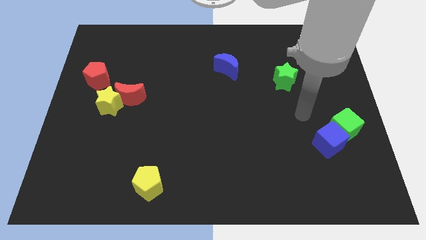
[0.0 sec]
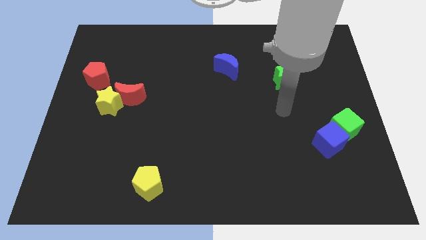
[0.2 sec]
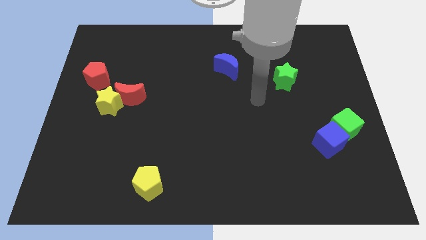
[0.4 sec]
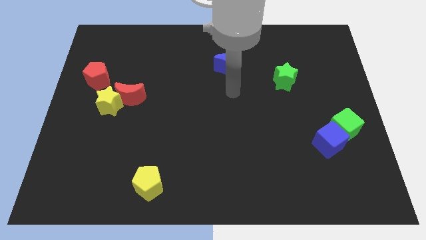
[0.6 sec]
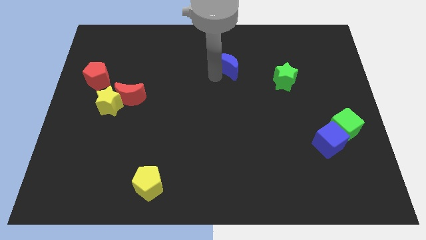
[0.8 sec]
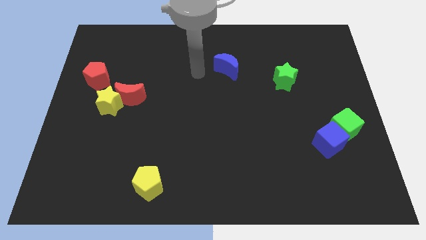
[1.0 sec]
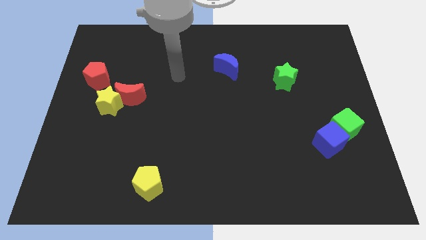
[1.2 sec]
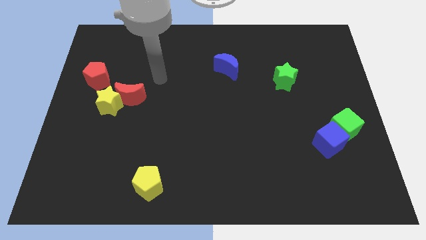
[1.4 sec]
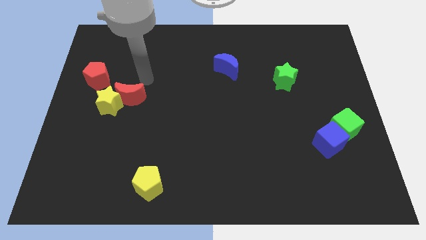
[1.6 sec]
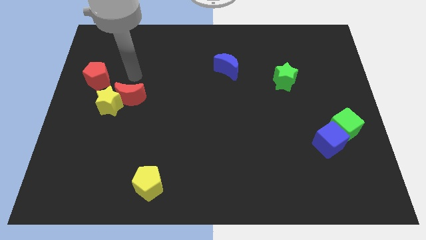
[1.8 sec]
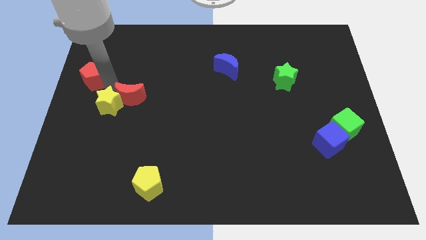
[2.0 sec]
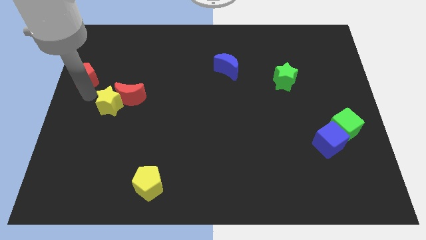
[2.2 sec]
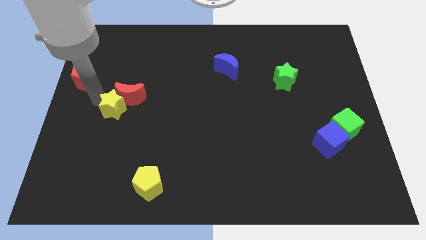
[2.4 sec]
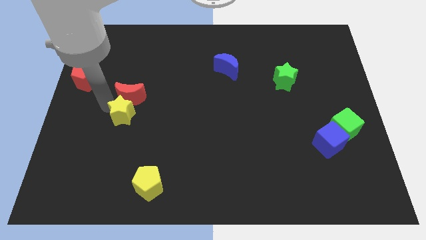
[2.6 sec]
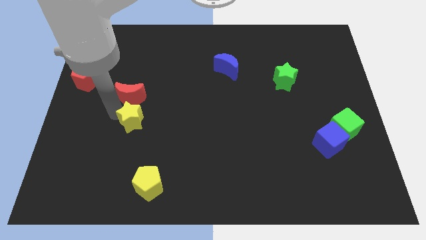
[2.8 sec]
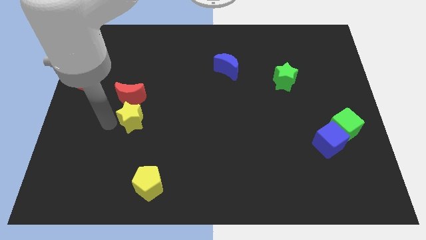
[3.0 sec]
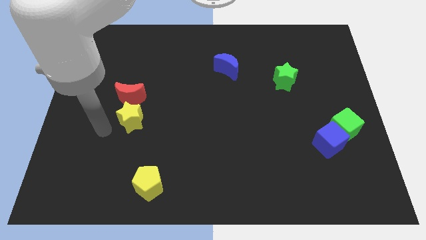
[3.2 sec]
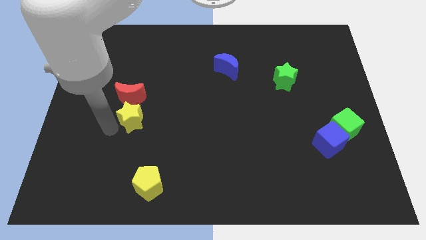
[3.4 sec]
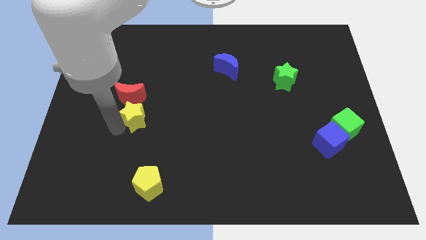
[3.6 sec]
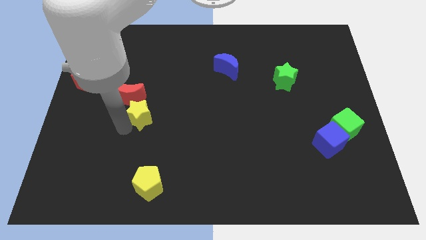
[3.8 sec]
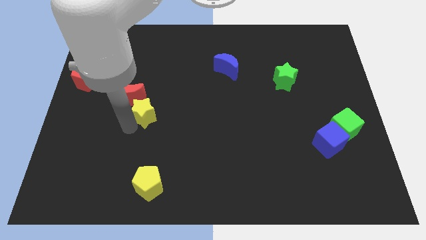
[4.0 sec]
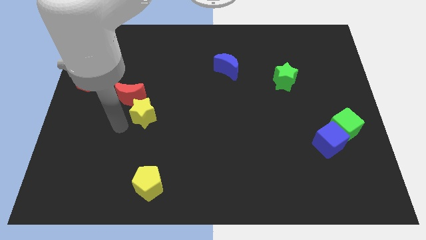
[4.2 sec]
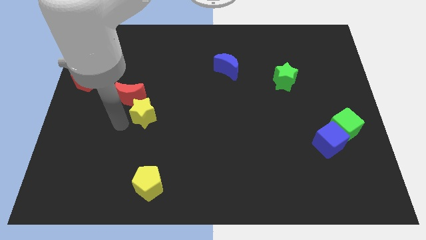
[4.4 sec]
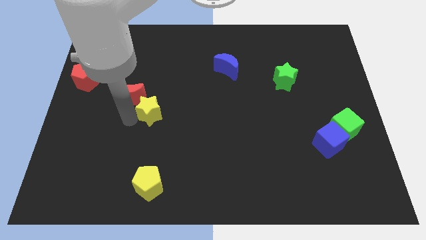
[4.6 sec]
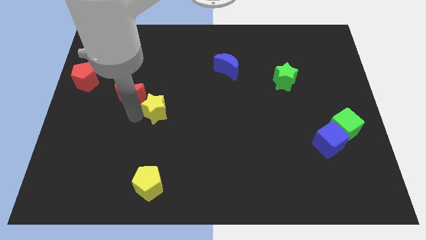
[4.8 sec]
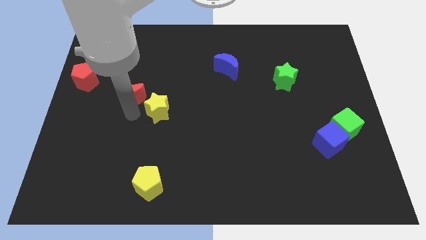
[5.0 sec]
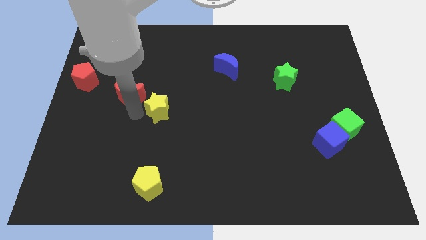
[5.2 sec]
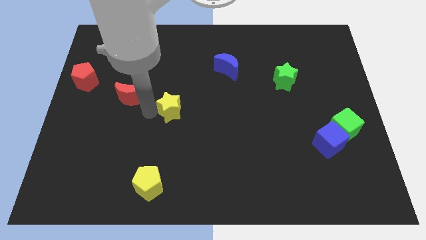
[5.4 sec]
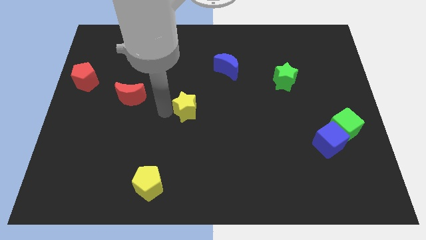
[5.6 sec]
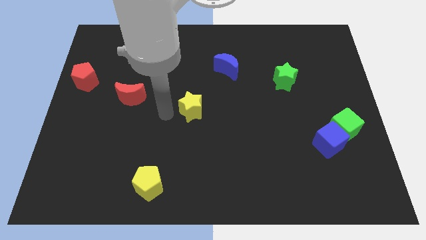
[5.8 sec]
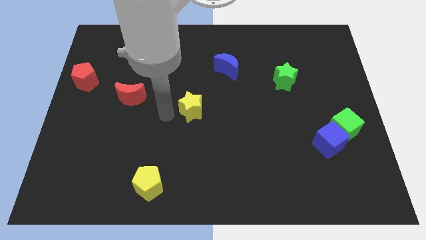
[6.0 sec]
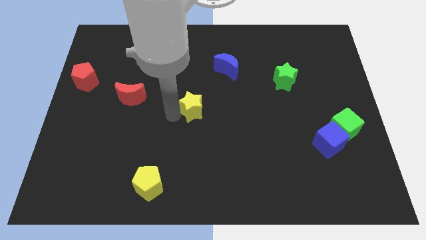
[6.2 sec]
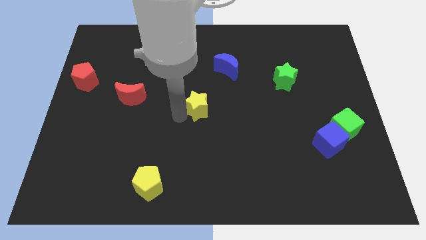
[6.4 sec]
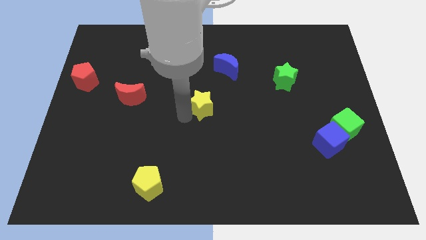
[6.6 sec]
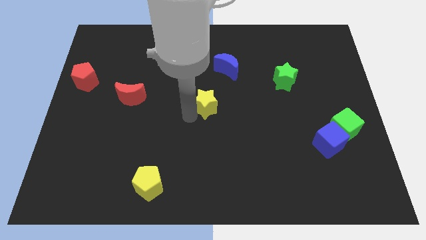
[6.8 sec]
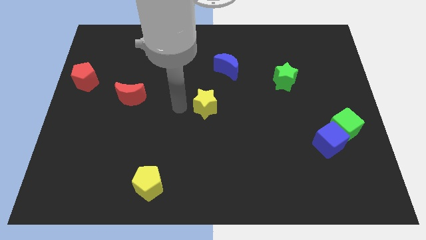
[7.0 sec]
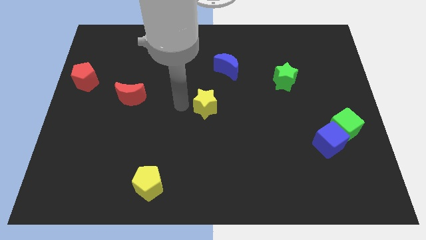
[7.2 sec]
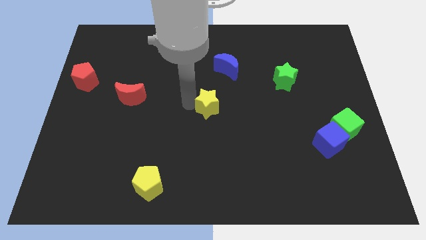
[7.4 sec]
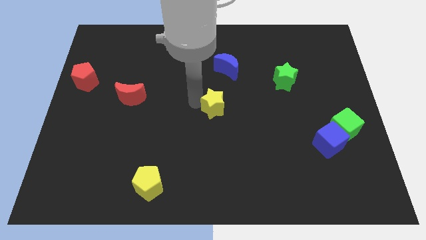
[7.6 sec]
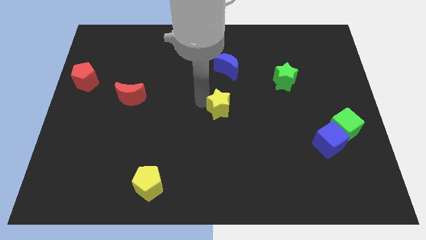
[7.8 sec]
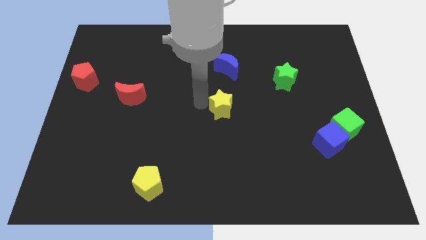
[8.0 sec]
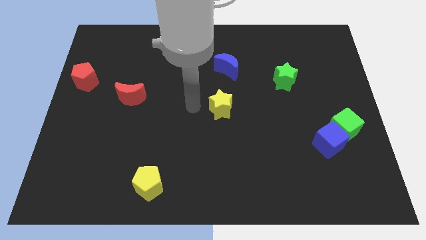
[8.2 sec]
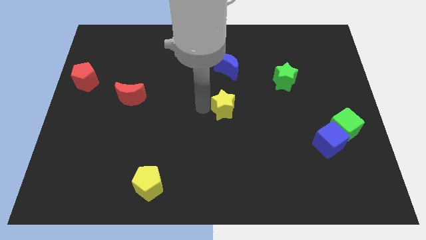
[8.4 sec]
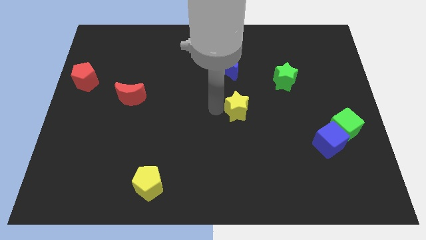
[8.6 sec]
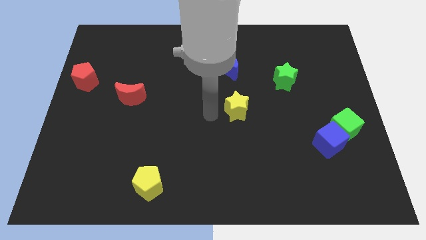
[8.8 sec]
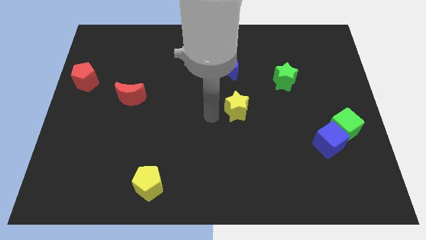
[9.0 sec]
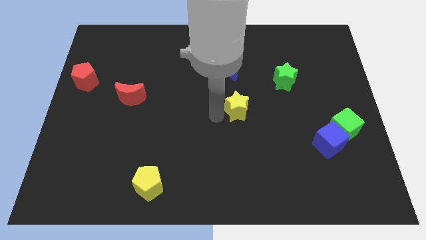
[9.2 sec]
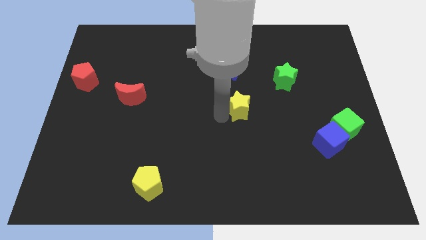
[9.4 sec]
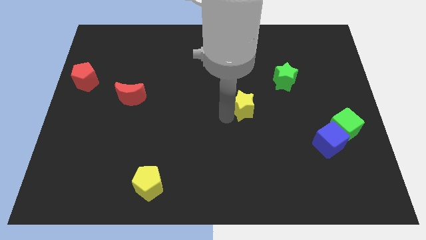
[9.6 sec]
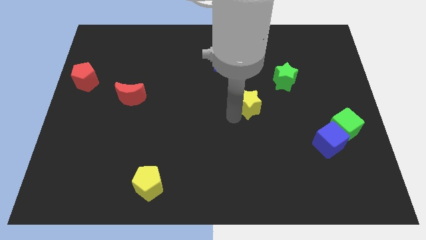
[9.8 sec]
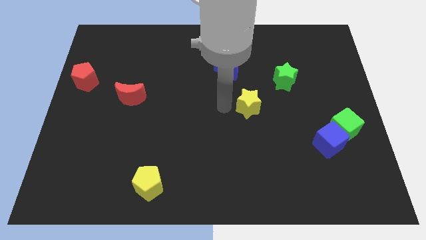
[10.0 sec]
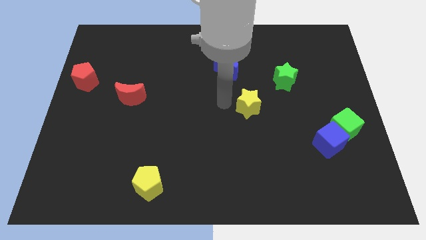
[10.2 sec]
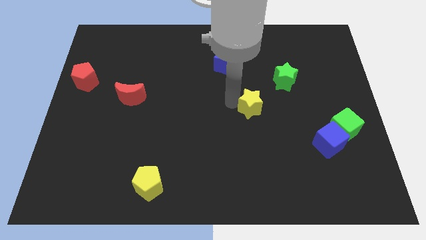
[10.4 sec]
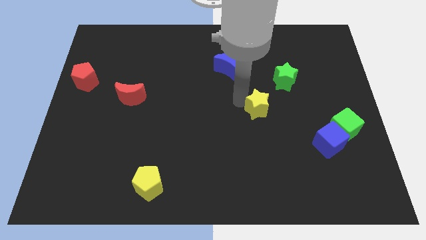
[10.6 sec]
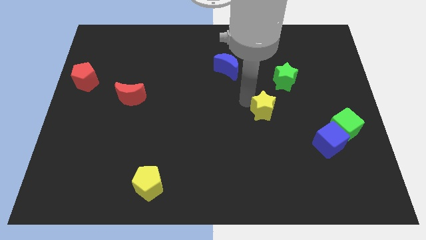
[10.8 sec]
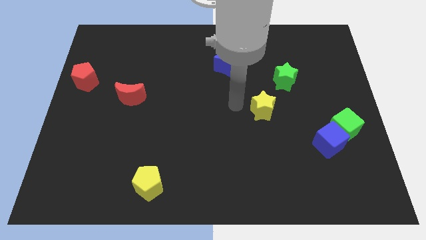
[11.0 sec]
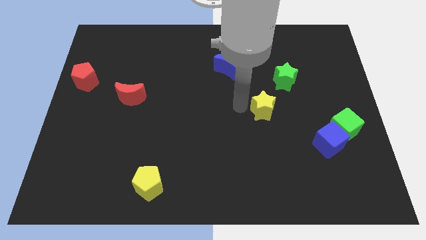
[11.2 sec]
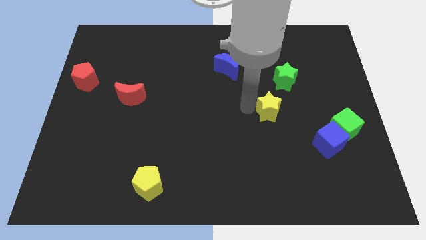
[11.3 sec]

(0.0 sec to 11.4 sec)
slide the yellow star below the green star
